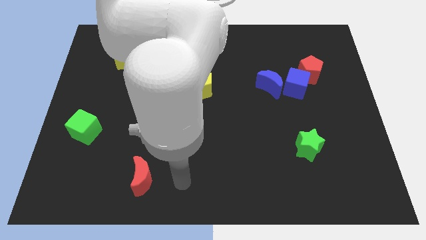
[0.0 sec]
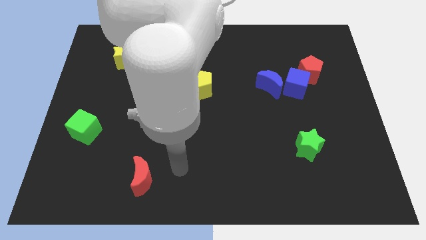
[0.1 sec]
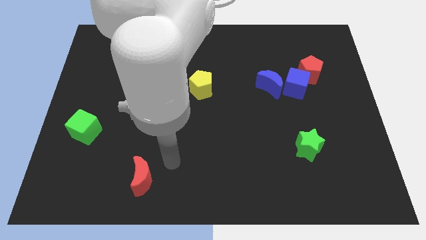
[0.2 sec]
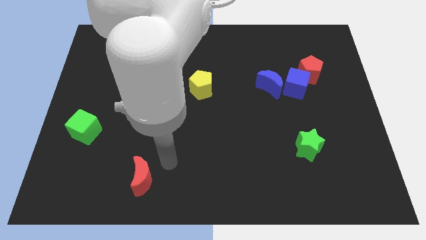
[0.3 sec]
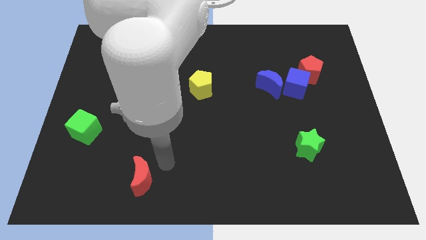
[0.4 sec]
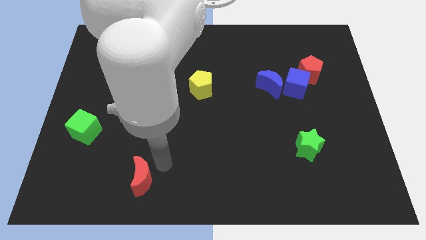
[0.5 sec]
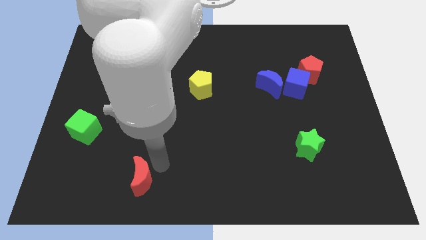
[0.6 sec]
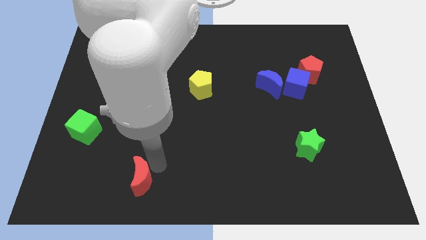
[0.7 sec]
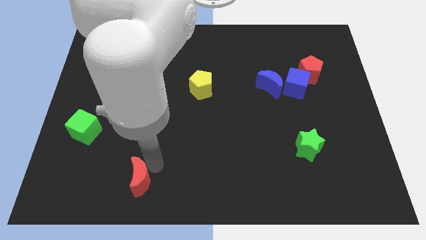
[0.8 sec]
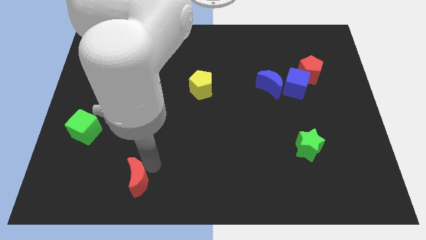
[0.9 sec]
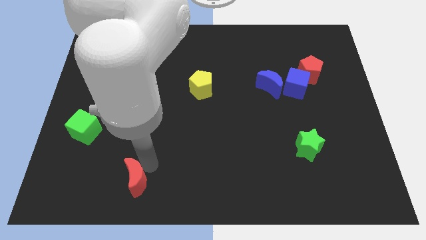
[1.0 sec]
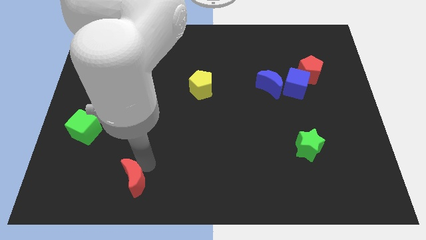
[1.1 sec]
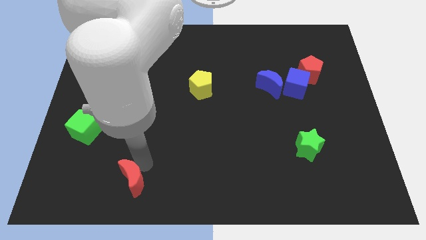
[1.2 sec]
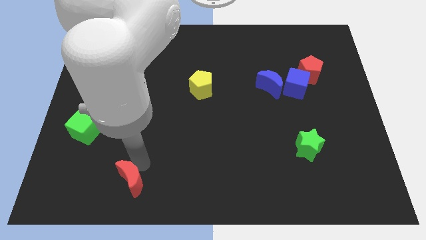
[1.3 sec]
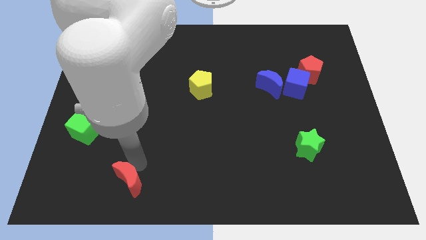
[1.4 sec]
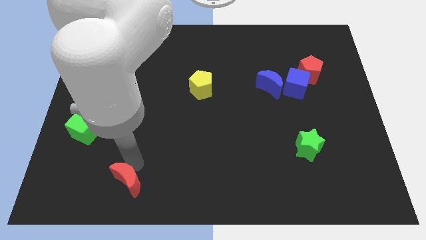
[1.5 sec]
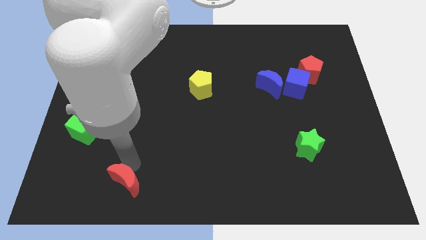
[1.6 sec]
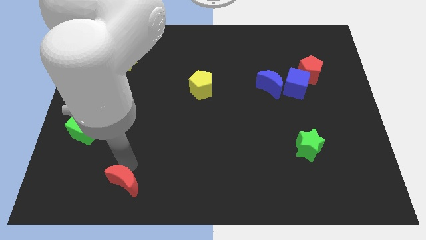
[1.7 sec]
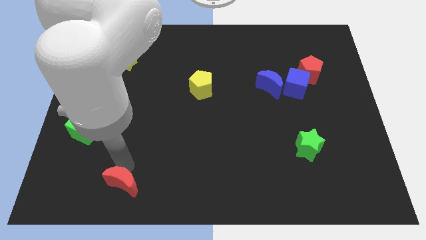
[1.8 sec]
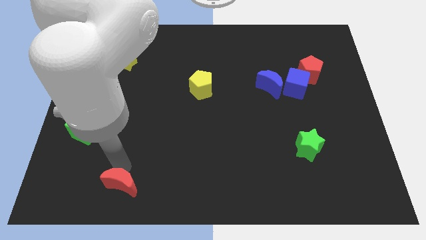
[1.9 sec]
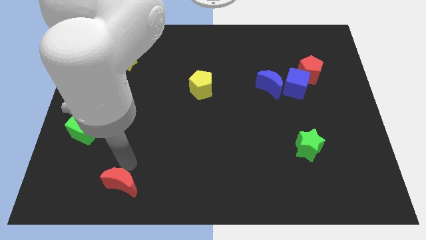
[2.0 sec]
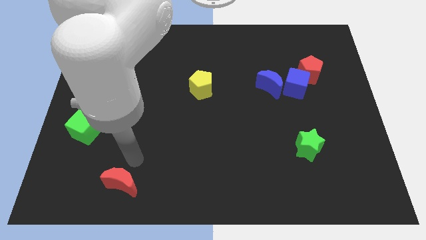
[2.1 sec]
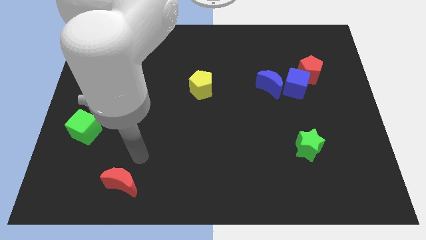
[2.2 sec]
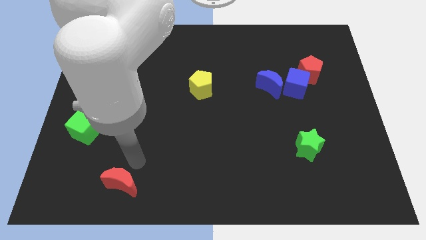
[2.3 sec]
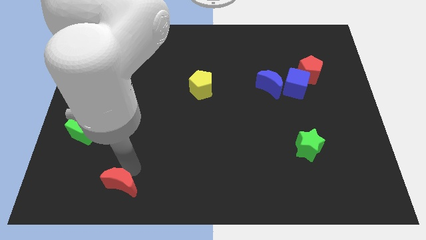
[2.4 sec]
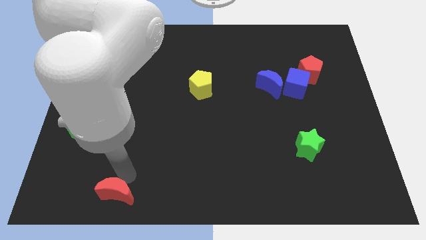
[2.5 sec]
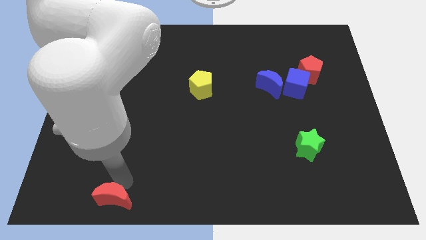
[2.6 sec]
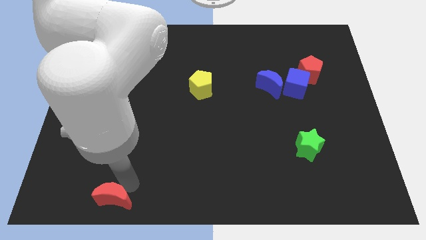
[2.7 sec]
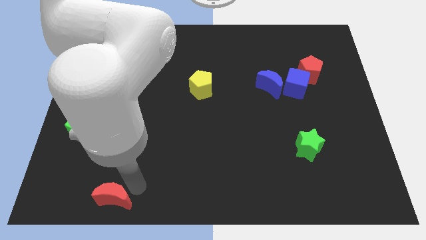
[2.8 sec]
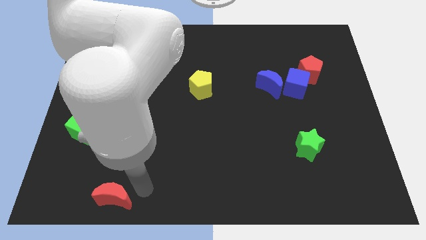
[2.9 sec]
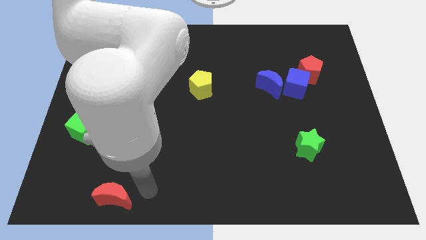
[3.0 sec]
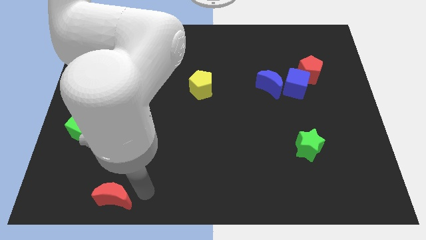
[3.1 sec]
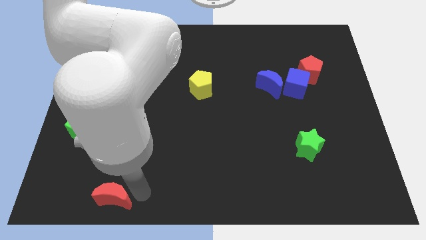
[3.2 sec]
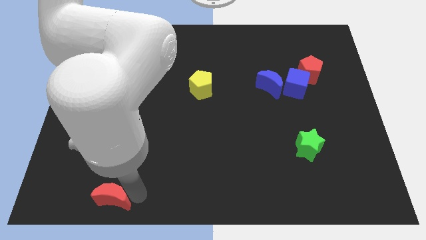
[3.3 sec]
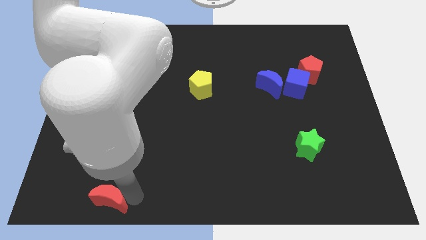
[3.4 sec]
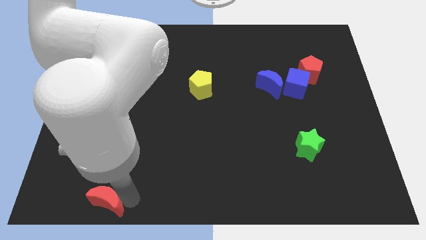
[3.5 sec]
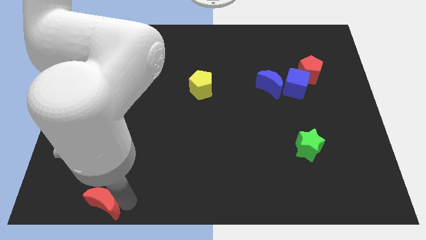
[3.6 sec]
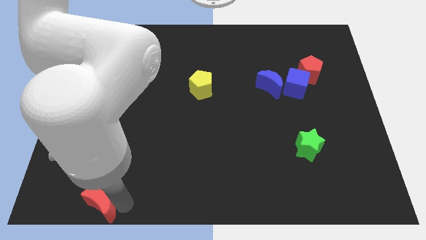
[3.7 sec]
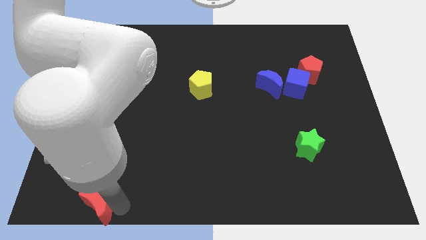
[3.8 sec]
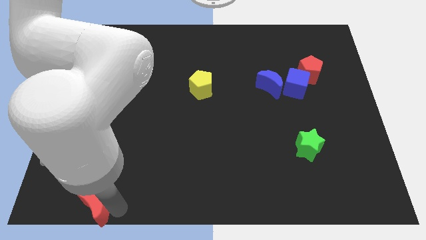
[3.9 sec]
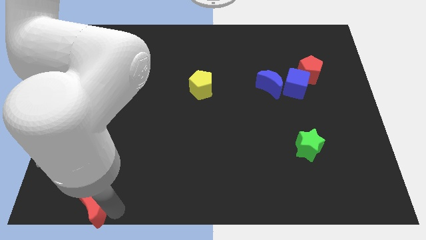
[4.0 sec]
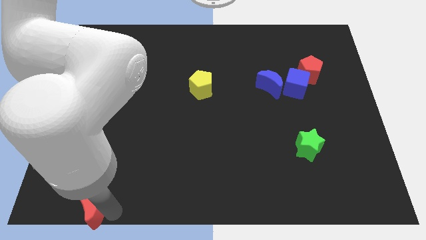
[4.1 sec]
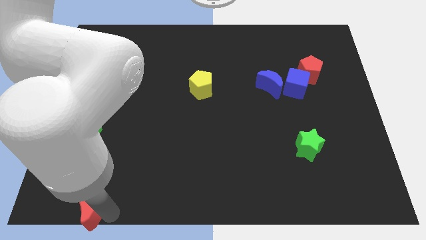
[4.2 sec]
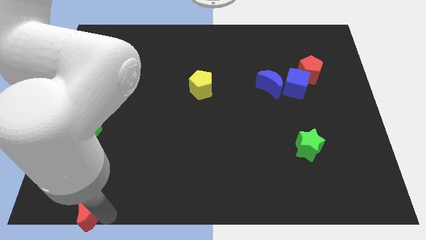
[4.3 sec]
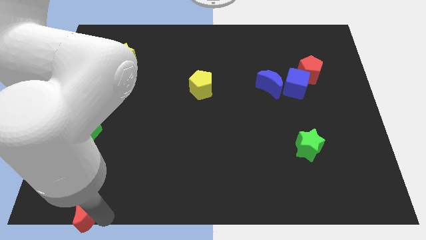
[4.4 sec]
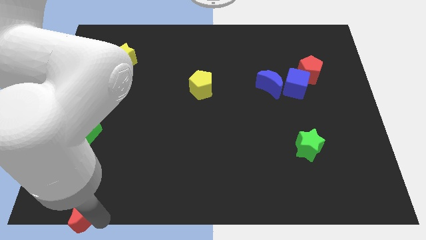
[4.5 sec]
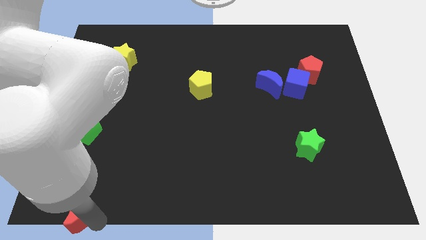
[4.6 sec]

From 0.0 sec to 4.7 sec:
slide the red moon to the bottom left corner

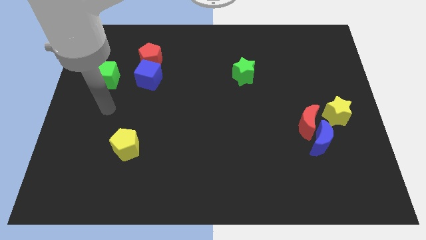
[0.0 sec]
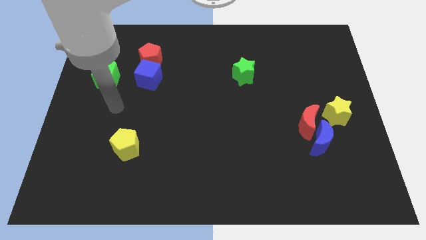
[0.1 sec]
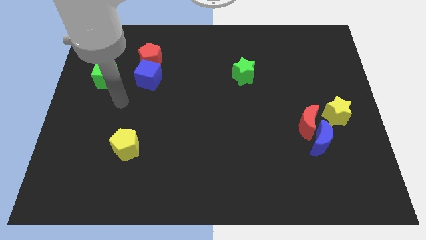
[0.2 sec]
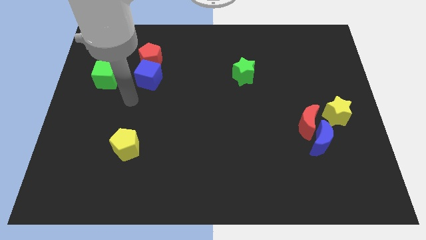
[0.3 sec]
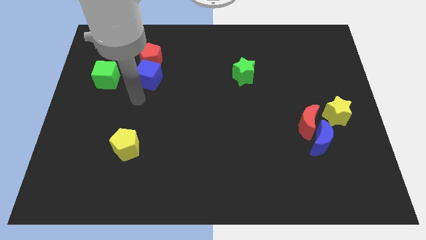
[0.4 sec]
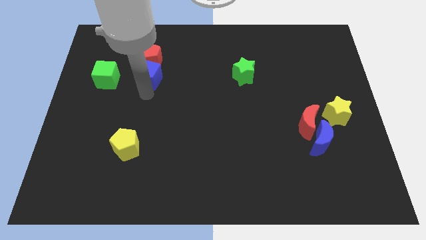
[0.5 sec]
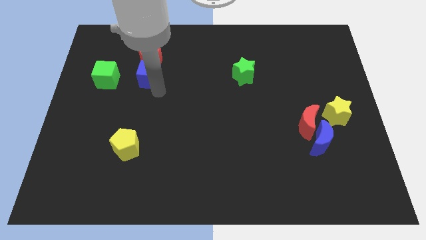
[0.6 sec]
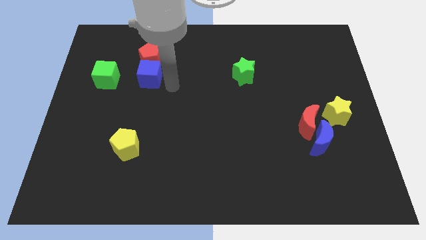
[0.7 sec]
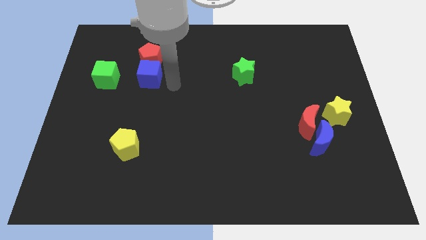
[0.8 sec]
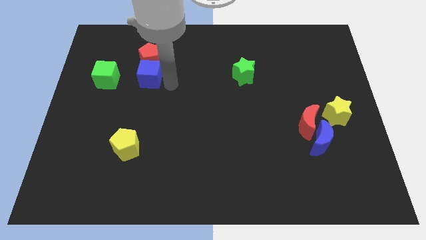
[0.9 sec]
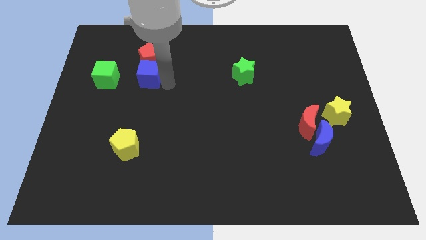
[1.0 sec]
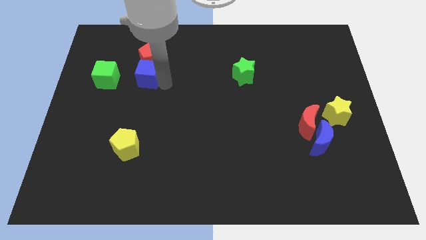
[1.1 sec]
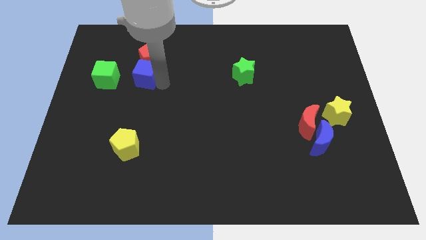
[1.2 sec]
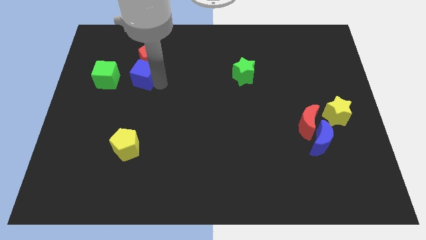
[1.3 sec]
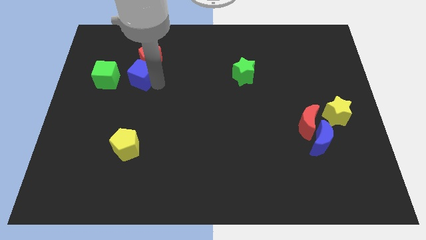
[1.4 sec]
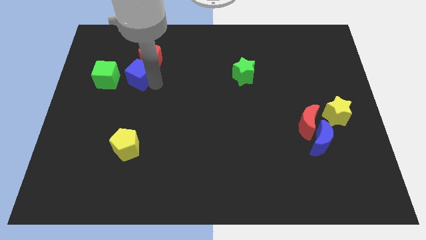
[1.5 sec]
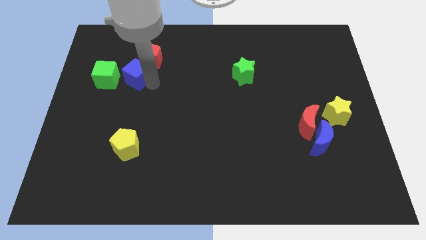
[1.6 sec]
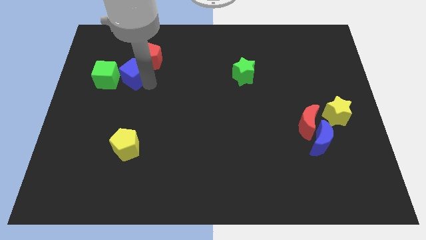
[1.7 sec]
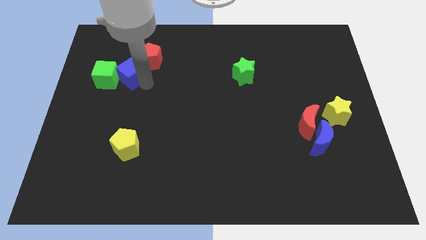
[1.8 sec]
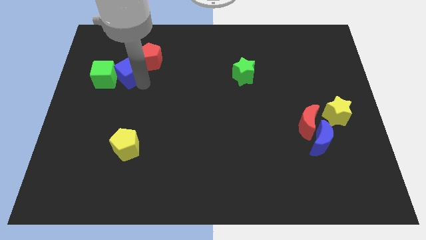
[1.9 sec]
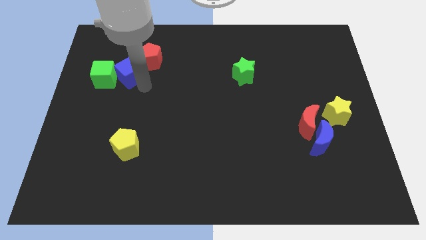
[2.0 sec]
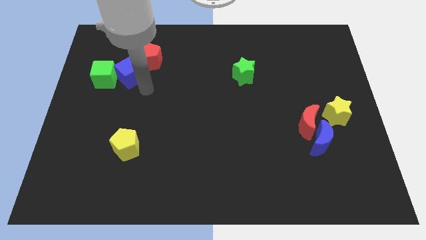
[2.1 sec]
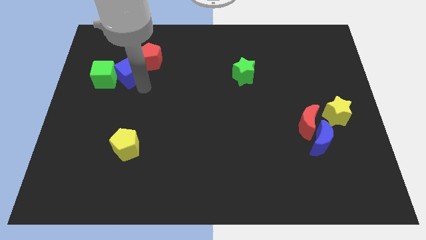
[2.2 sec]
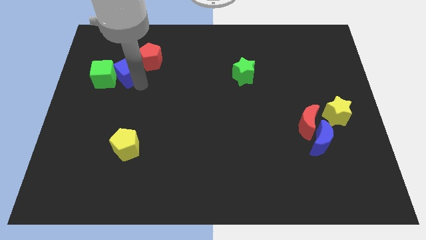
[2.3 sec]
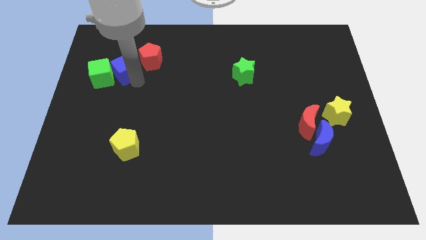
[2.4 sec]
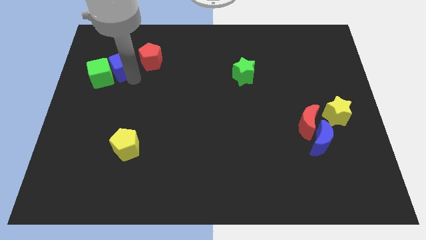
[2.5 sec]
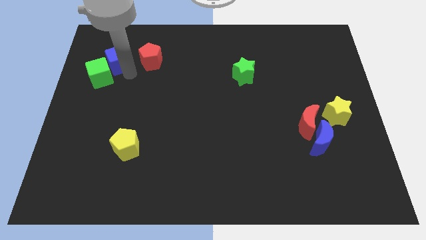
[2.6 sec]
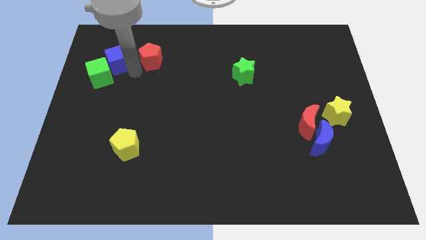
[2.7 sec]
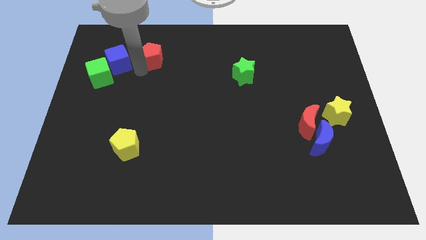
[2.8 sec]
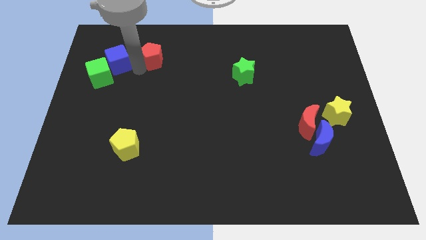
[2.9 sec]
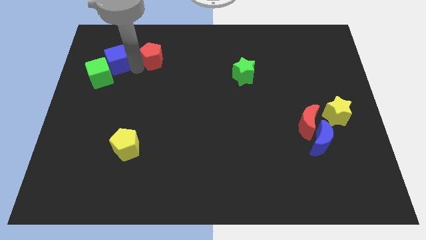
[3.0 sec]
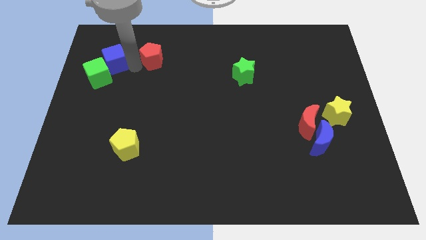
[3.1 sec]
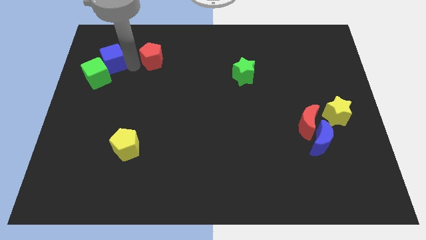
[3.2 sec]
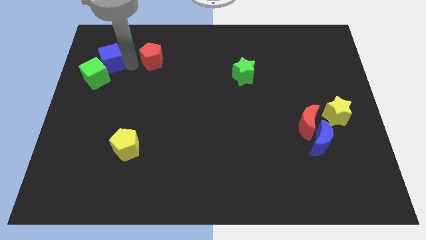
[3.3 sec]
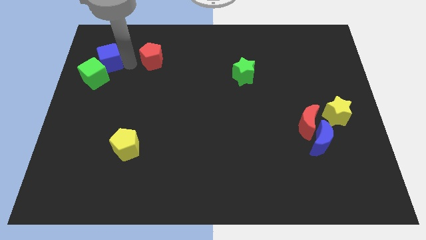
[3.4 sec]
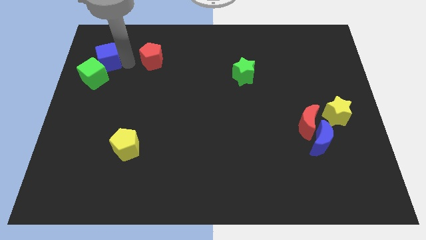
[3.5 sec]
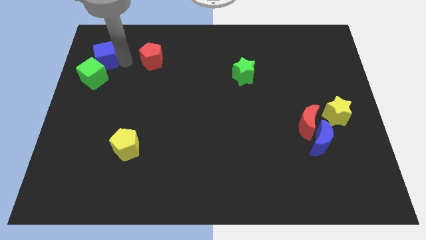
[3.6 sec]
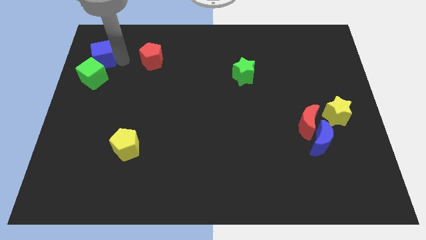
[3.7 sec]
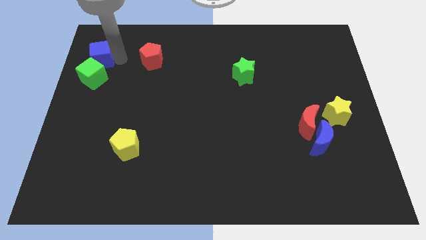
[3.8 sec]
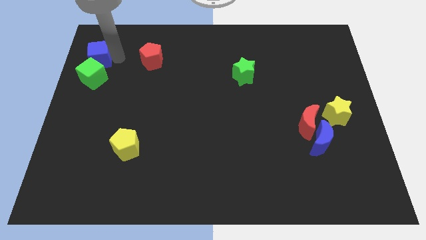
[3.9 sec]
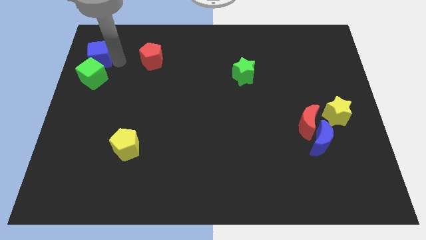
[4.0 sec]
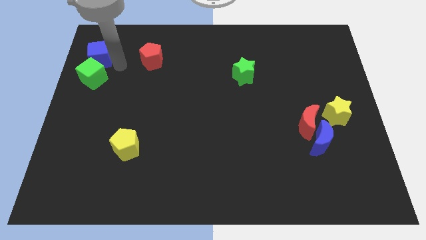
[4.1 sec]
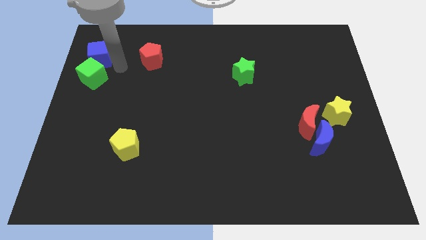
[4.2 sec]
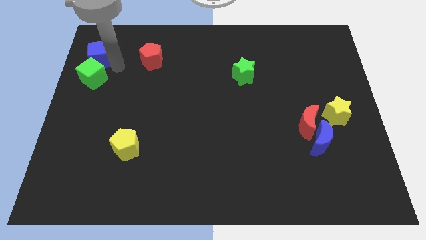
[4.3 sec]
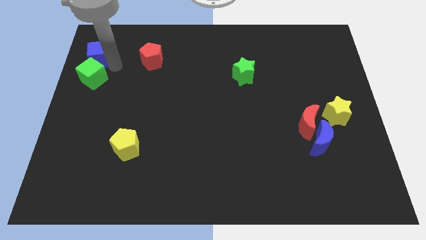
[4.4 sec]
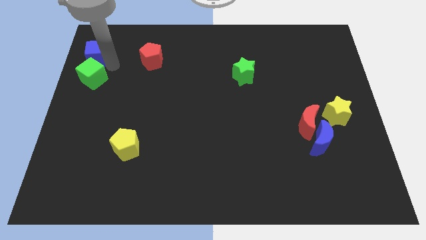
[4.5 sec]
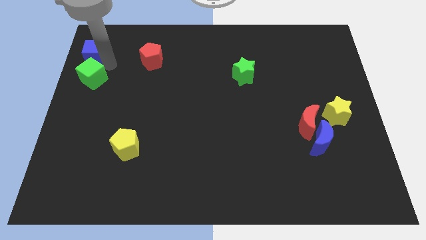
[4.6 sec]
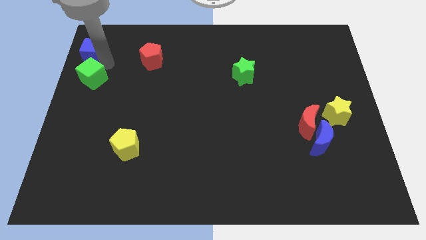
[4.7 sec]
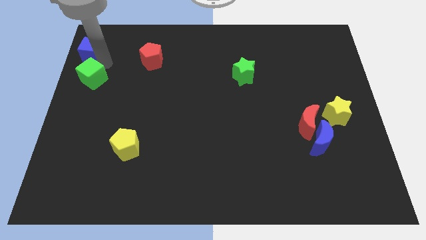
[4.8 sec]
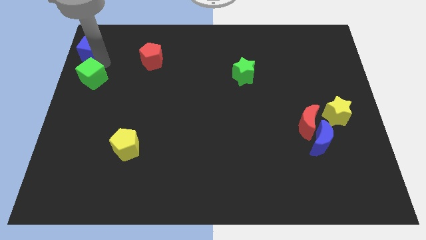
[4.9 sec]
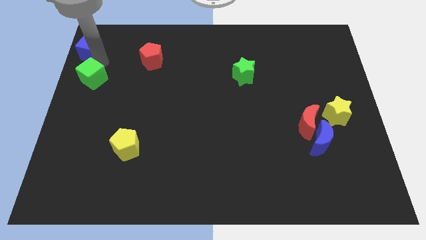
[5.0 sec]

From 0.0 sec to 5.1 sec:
slide the blue cube to the top left corner
